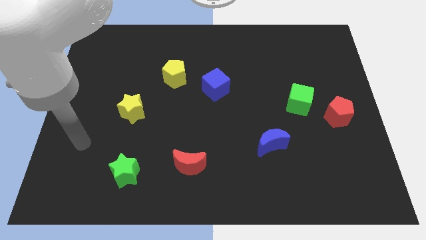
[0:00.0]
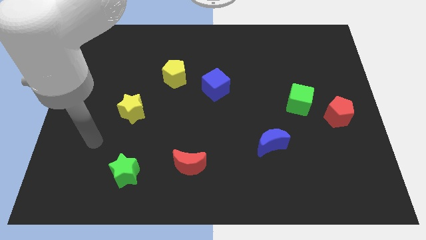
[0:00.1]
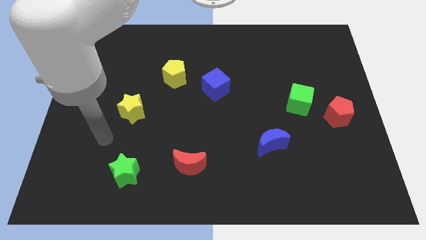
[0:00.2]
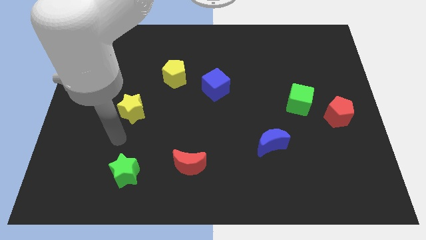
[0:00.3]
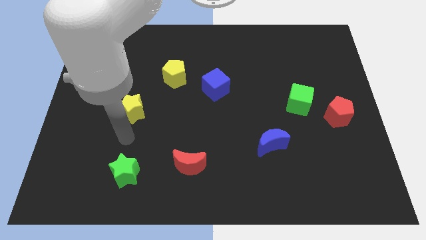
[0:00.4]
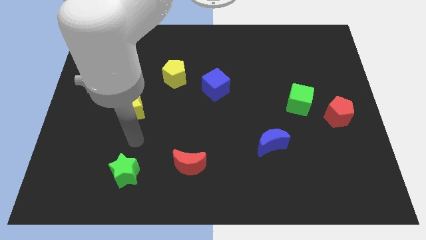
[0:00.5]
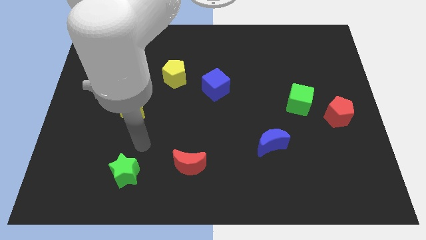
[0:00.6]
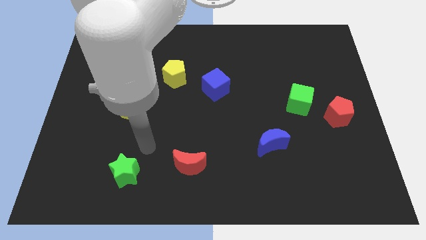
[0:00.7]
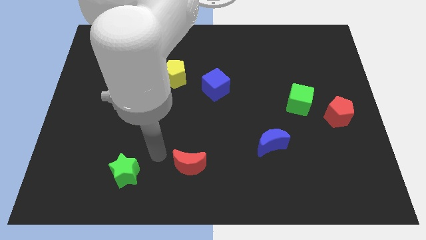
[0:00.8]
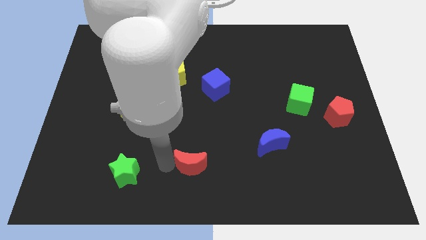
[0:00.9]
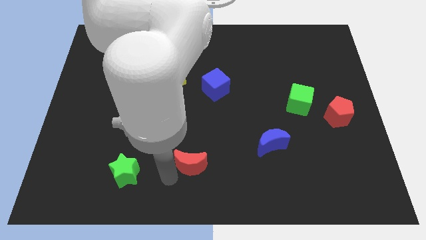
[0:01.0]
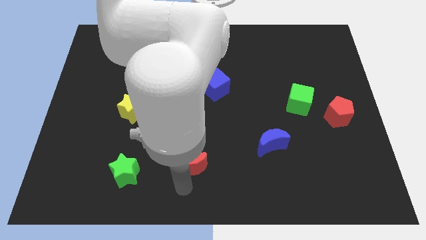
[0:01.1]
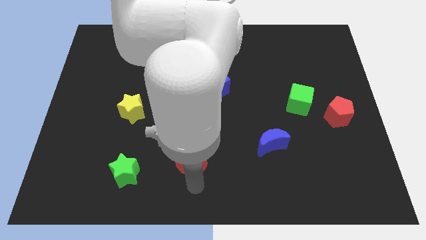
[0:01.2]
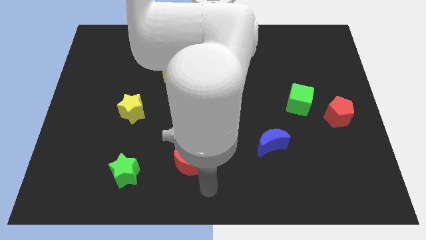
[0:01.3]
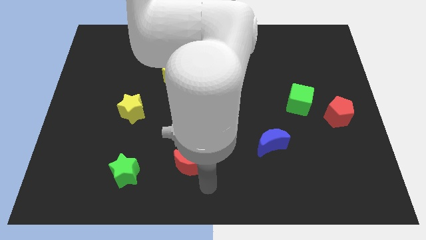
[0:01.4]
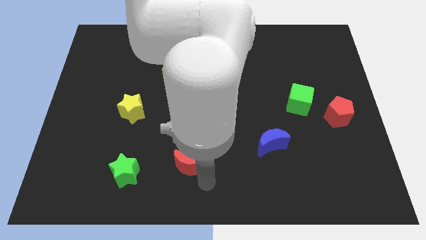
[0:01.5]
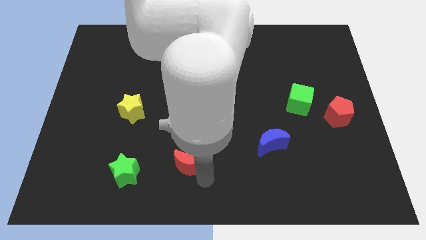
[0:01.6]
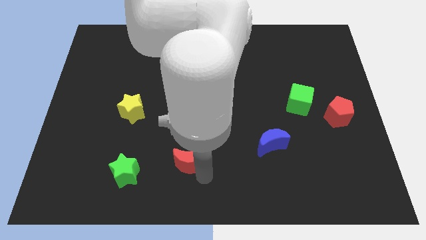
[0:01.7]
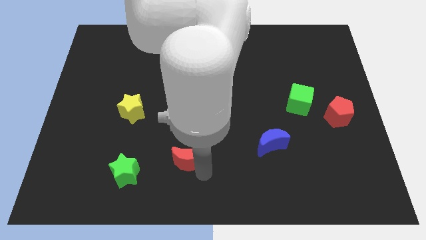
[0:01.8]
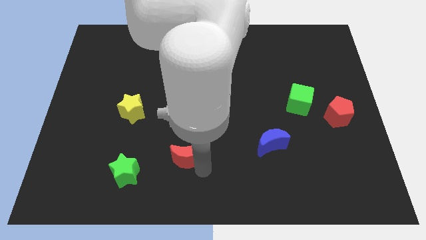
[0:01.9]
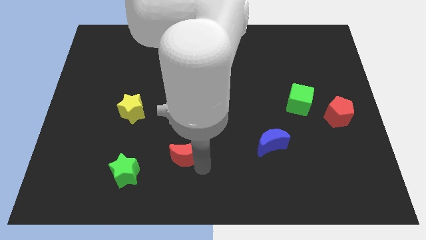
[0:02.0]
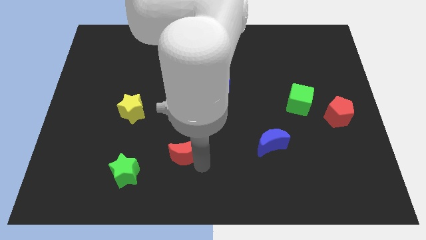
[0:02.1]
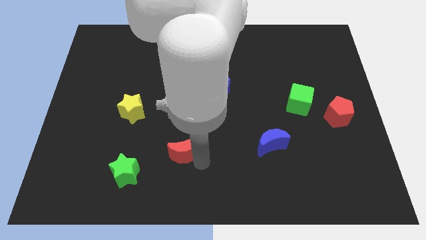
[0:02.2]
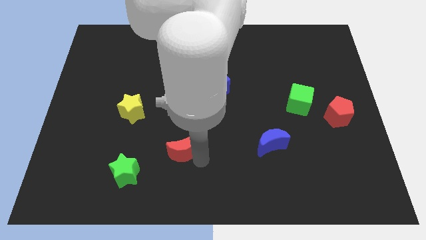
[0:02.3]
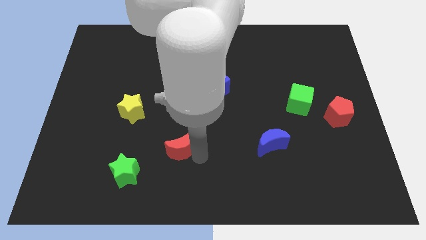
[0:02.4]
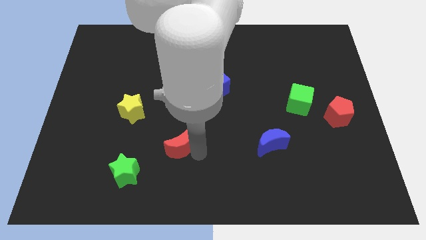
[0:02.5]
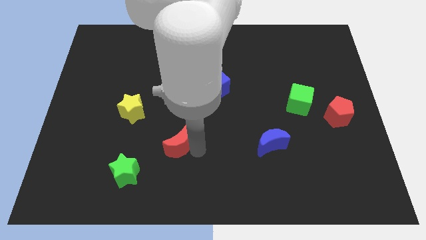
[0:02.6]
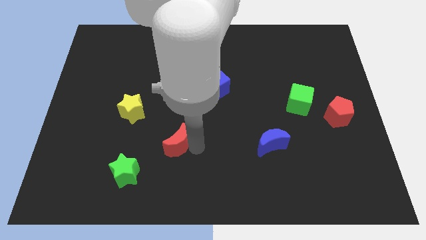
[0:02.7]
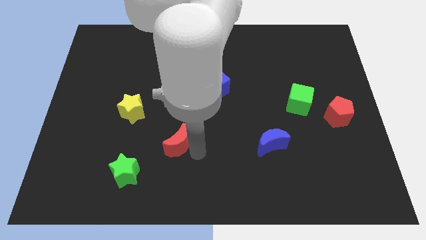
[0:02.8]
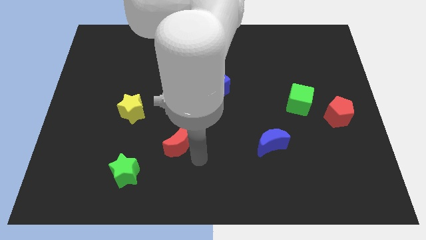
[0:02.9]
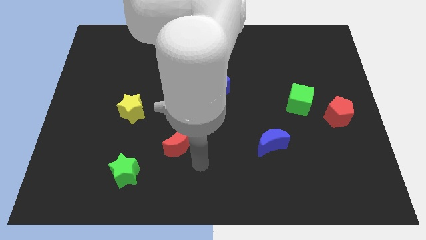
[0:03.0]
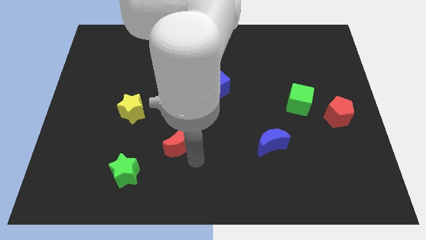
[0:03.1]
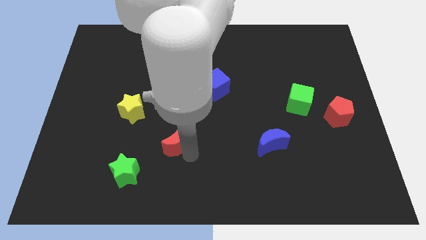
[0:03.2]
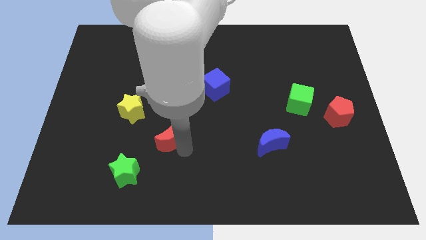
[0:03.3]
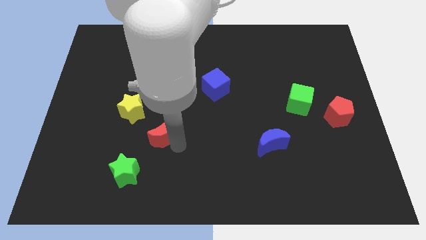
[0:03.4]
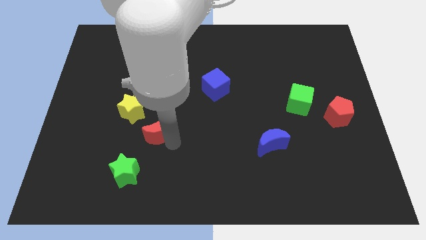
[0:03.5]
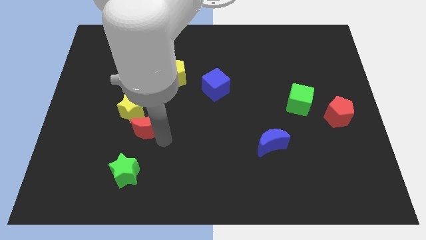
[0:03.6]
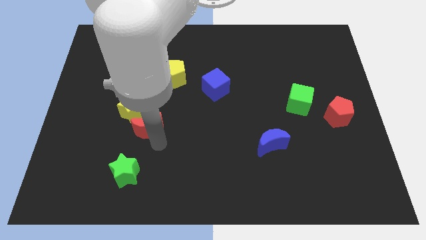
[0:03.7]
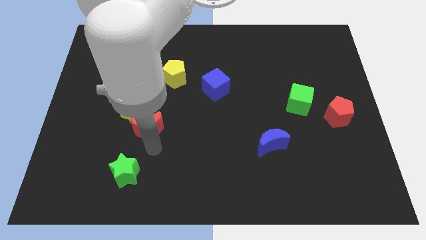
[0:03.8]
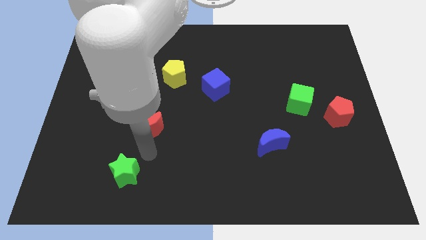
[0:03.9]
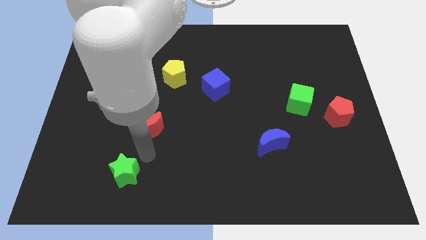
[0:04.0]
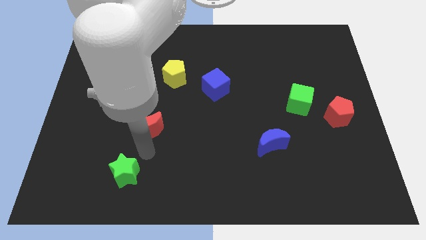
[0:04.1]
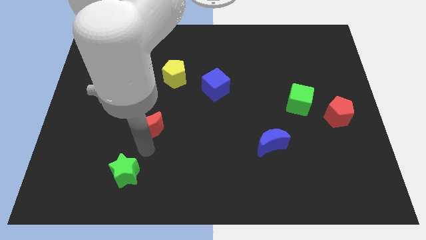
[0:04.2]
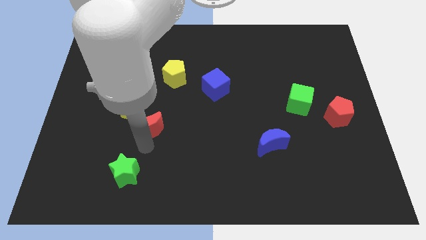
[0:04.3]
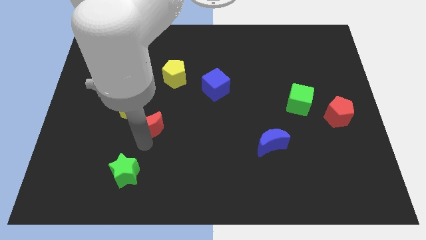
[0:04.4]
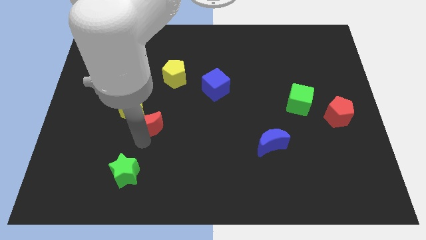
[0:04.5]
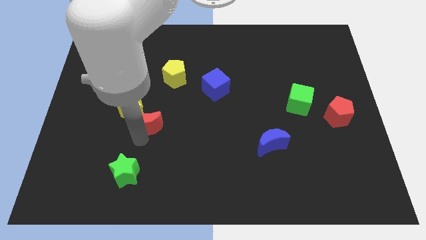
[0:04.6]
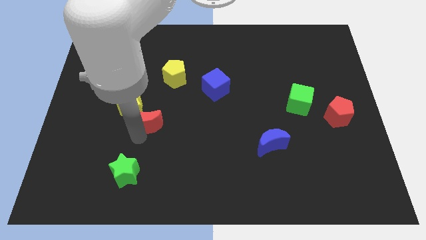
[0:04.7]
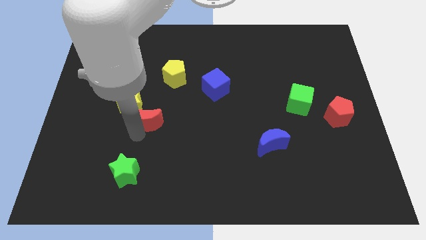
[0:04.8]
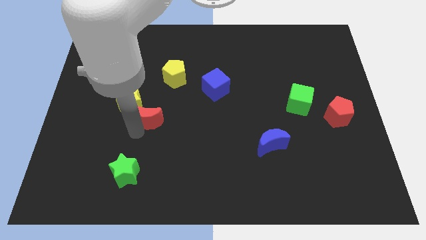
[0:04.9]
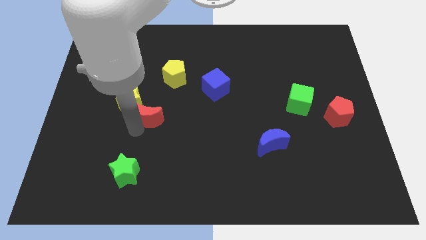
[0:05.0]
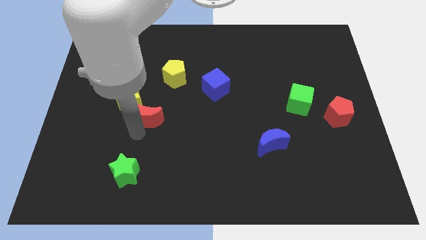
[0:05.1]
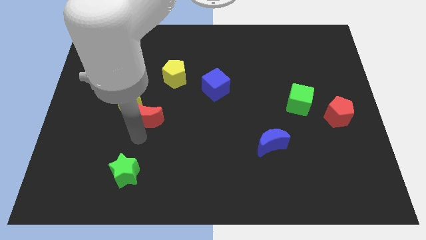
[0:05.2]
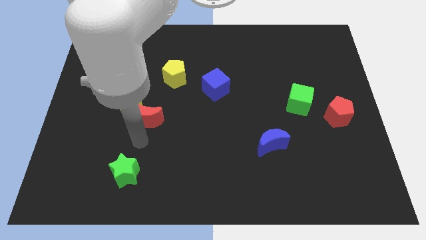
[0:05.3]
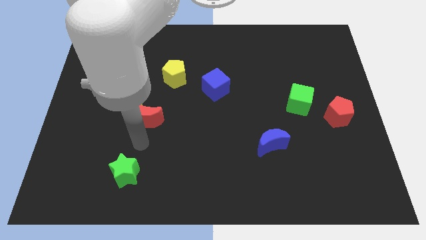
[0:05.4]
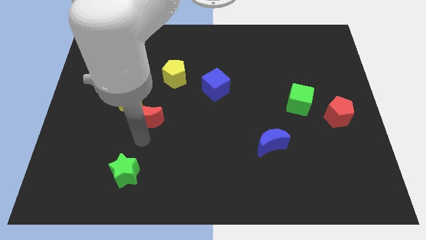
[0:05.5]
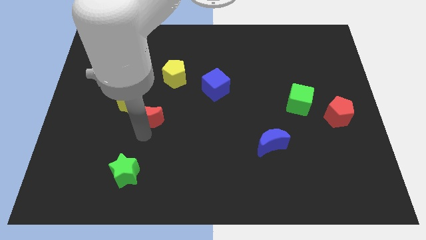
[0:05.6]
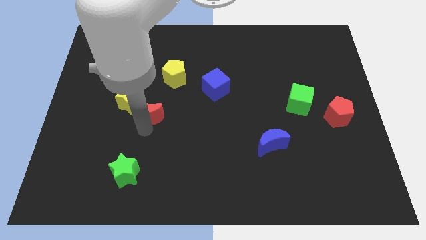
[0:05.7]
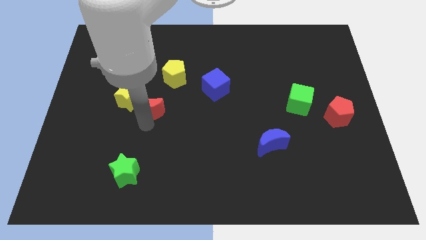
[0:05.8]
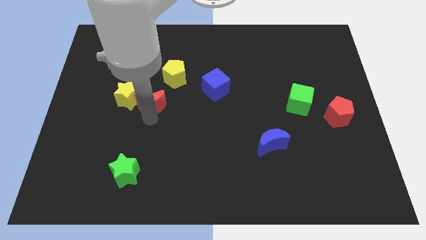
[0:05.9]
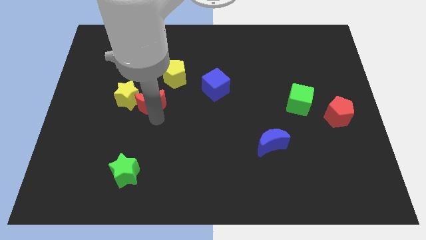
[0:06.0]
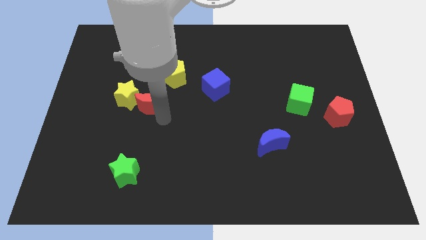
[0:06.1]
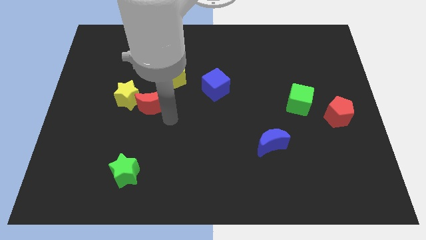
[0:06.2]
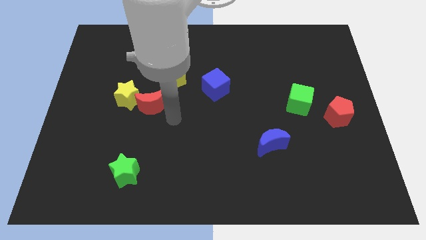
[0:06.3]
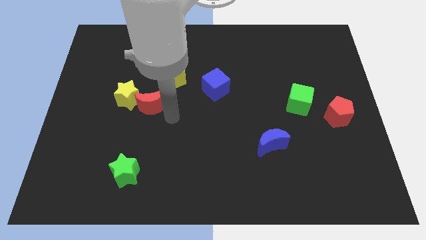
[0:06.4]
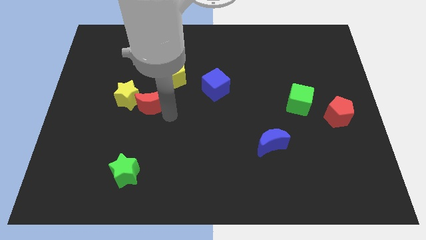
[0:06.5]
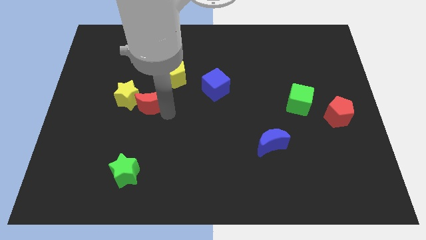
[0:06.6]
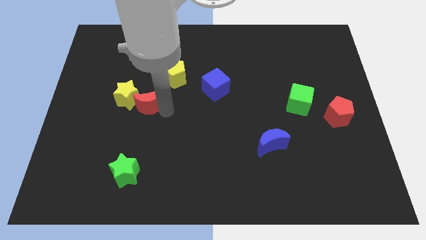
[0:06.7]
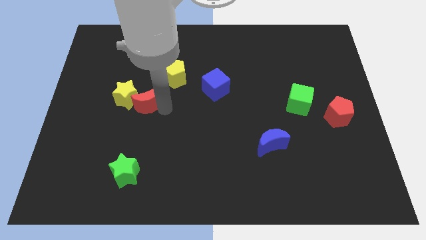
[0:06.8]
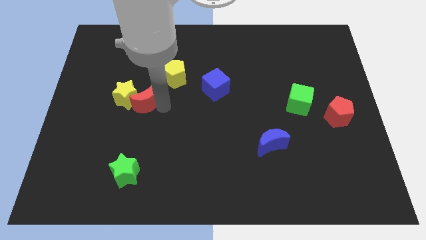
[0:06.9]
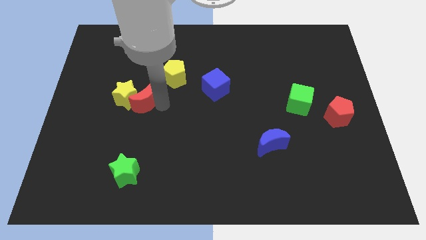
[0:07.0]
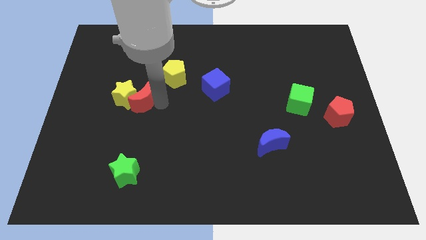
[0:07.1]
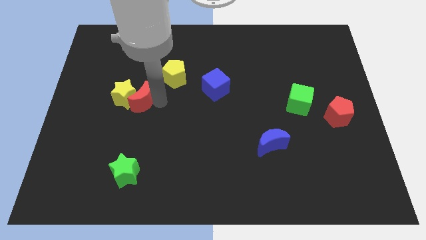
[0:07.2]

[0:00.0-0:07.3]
push the red moon upwards and to the left diagonally

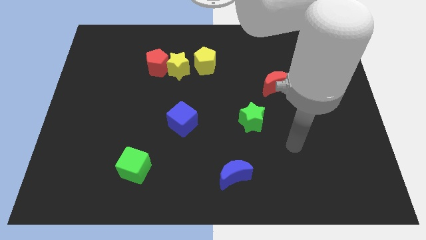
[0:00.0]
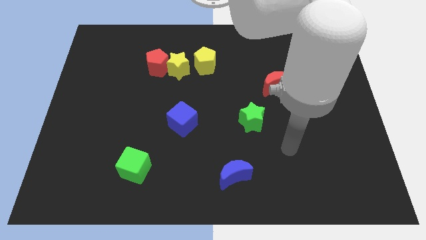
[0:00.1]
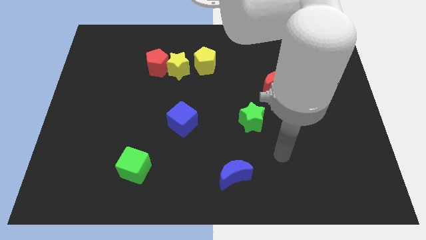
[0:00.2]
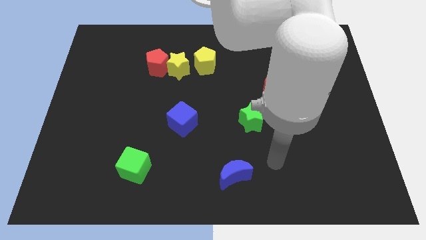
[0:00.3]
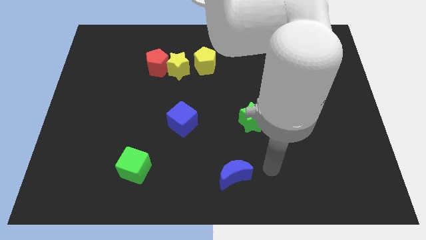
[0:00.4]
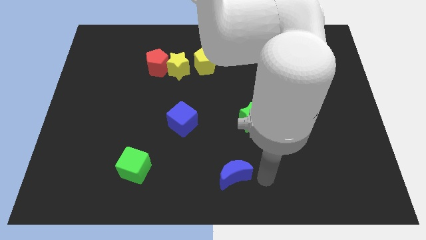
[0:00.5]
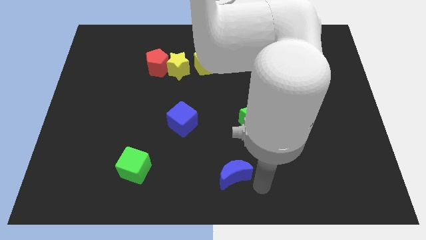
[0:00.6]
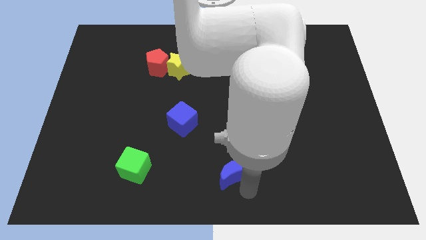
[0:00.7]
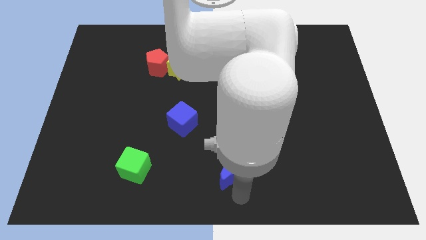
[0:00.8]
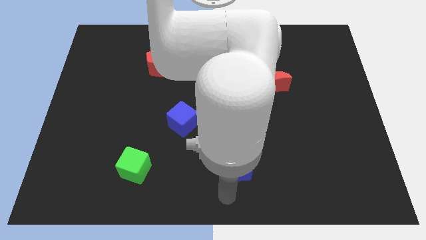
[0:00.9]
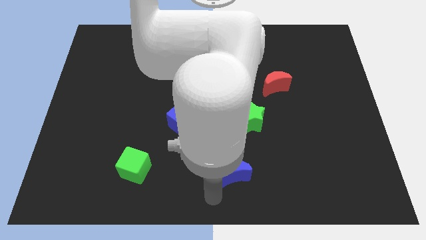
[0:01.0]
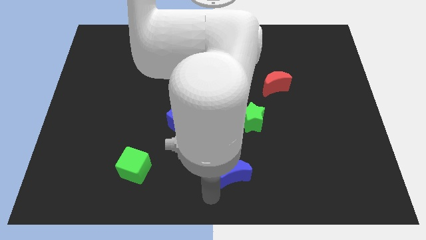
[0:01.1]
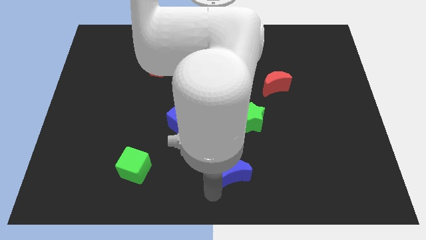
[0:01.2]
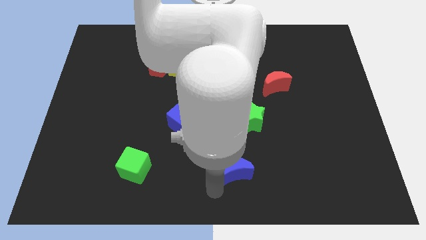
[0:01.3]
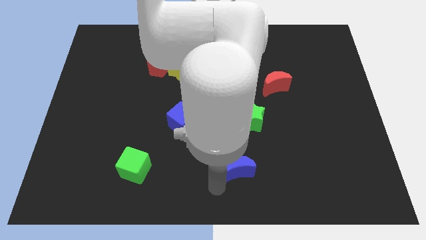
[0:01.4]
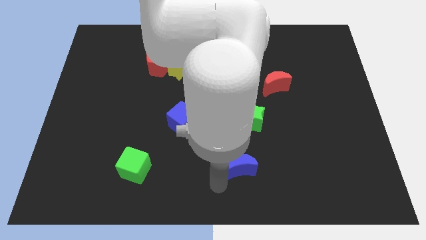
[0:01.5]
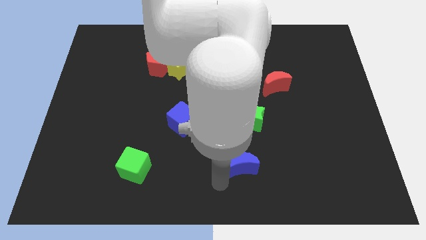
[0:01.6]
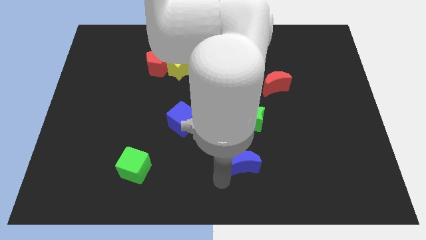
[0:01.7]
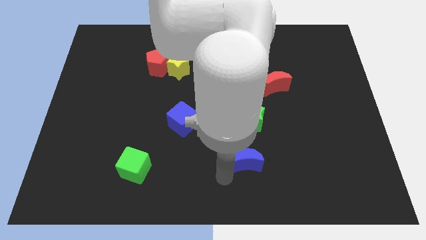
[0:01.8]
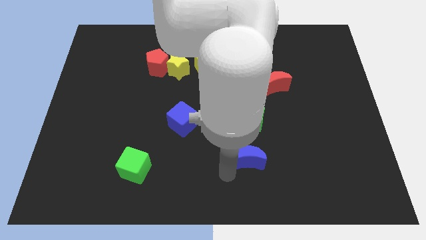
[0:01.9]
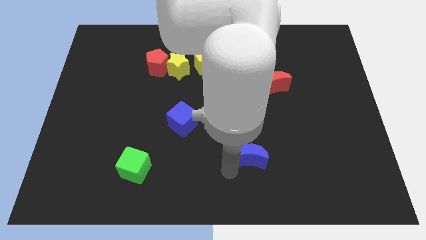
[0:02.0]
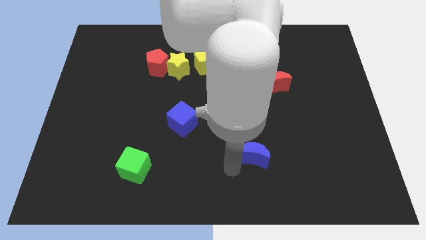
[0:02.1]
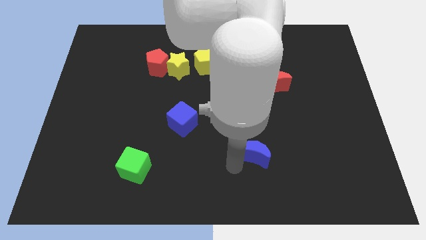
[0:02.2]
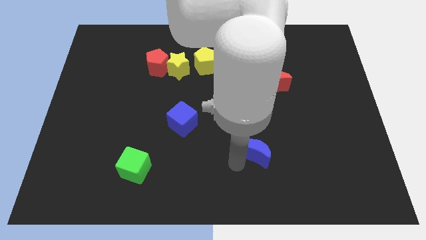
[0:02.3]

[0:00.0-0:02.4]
slightly slide the blue moon diagonally upwards and right
